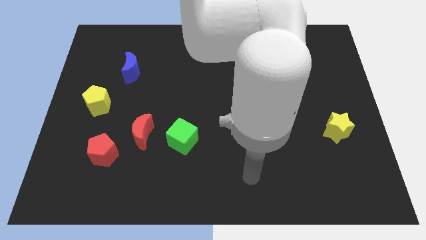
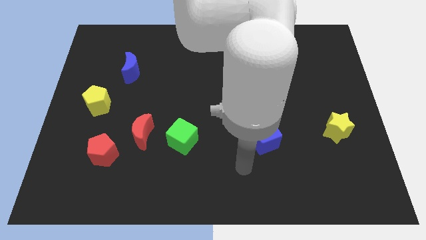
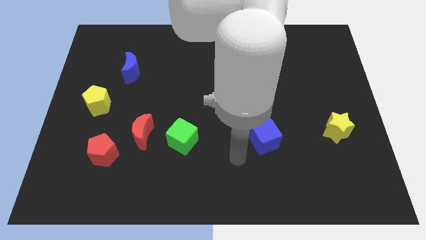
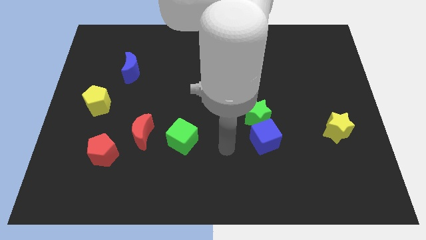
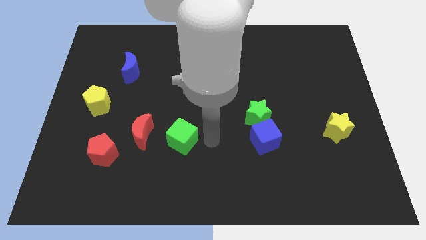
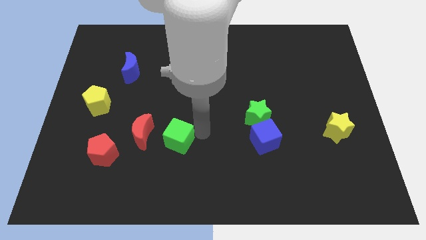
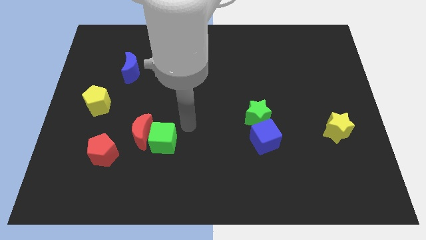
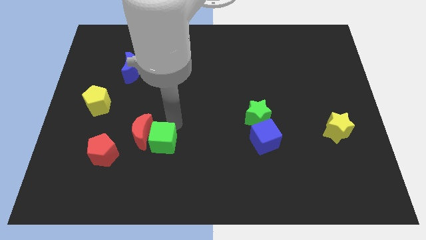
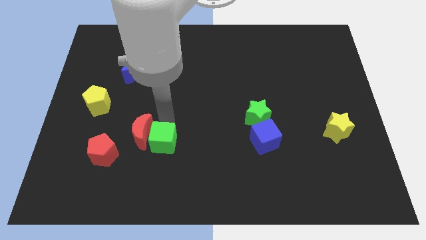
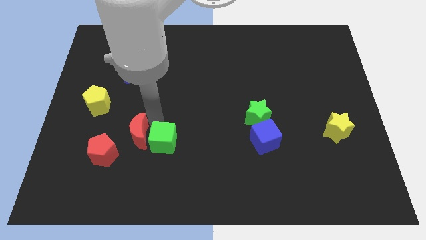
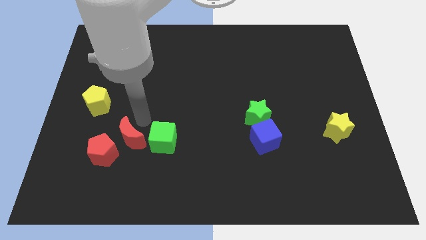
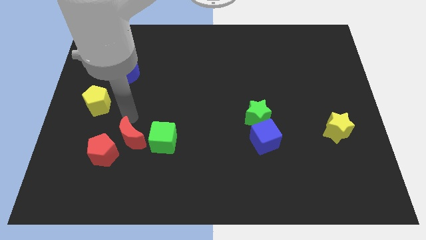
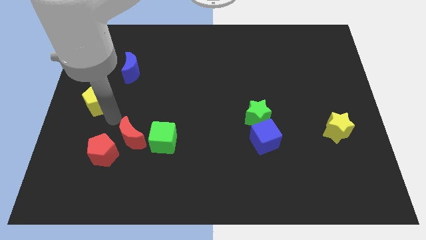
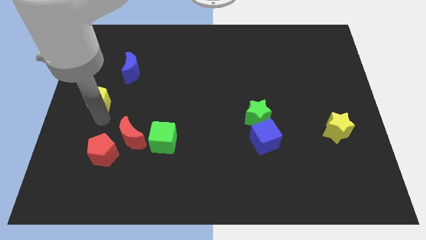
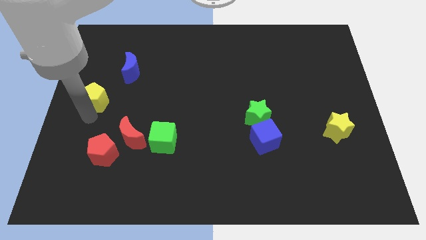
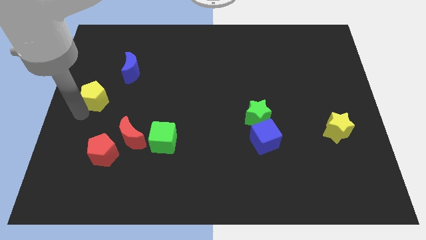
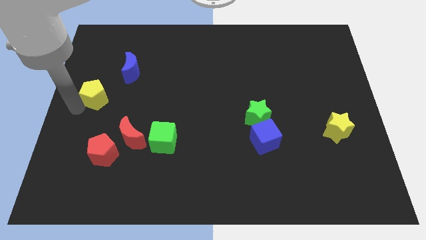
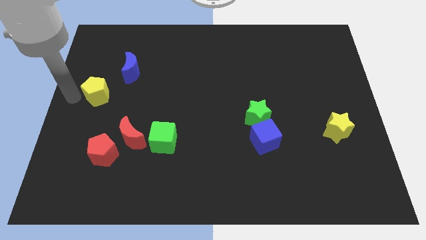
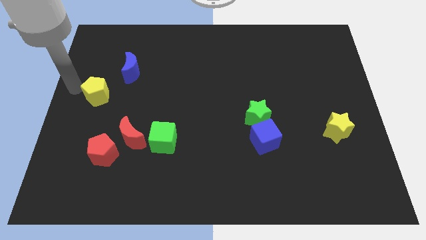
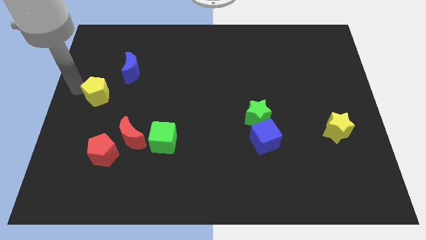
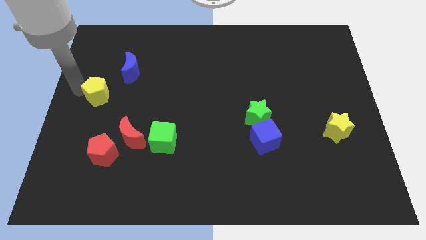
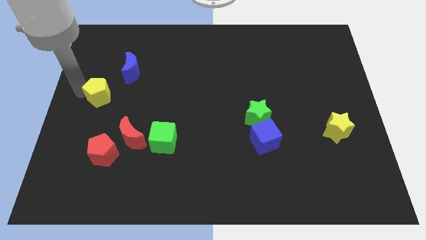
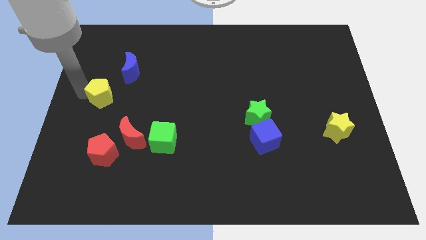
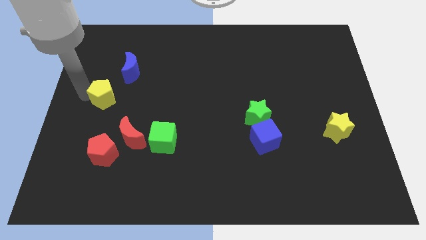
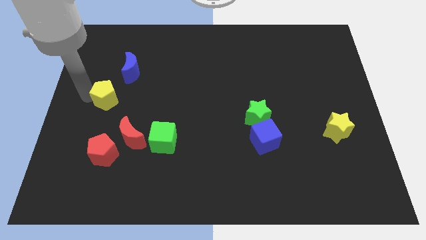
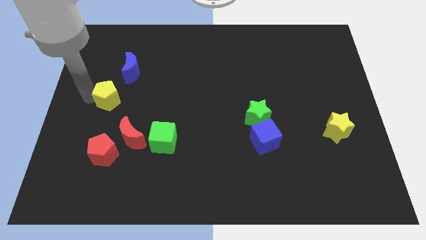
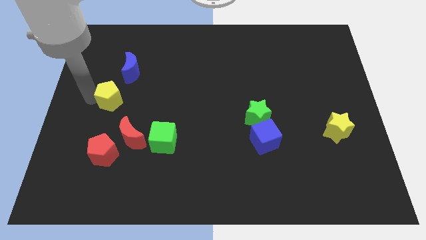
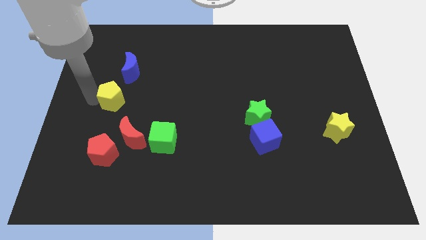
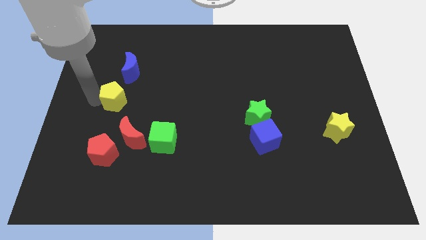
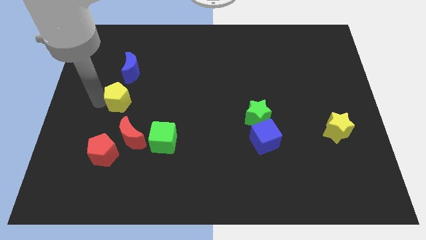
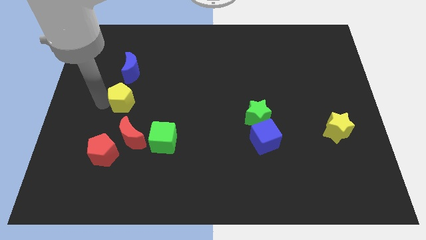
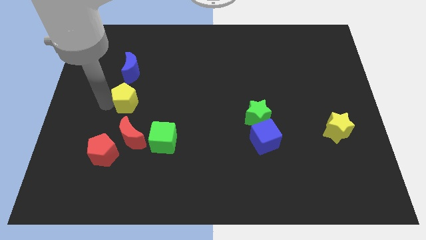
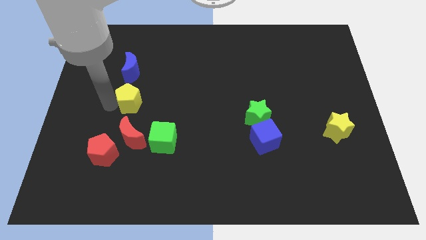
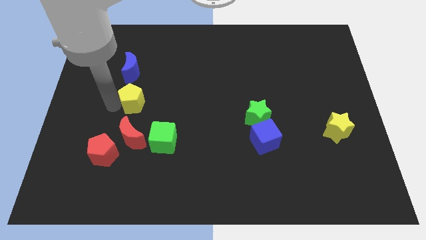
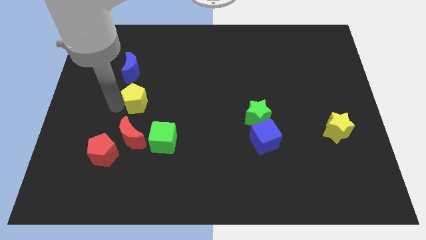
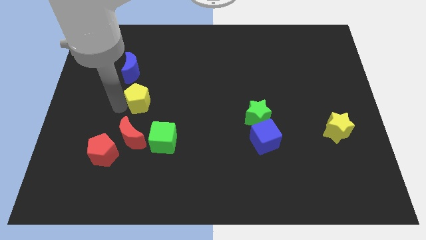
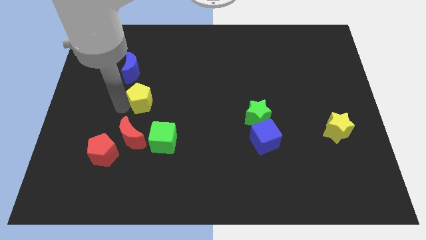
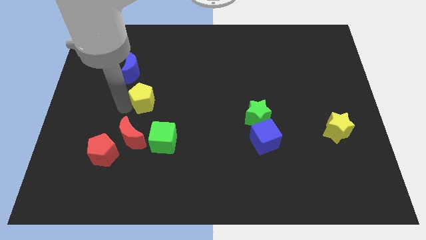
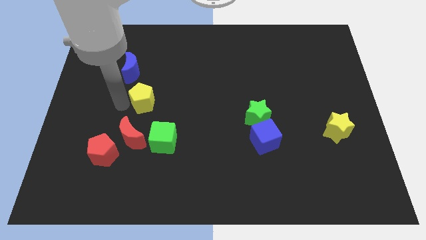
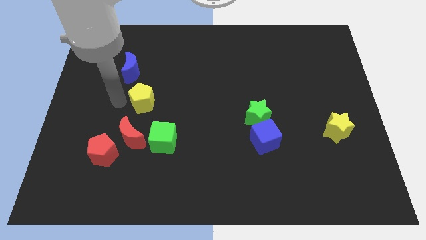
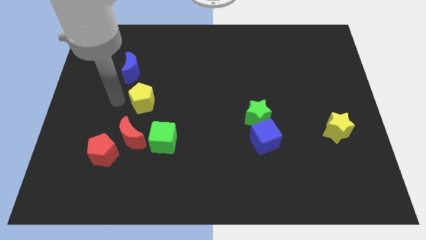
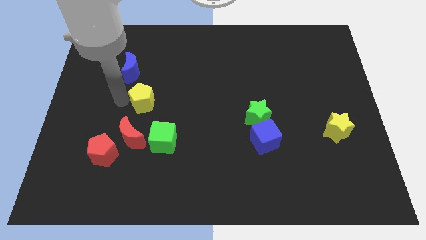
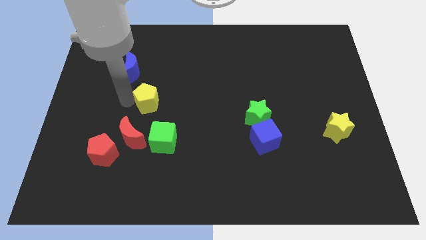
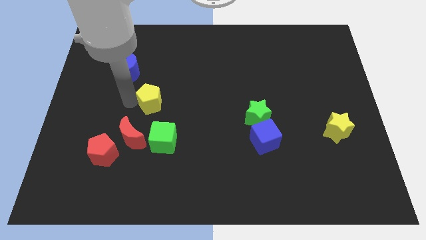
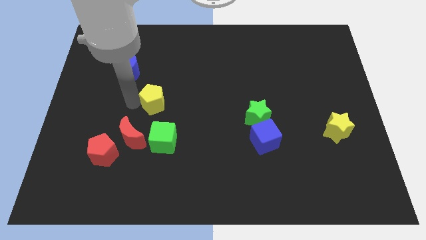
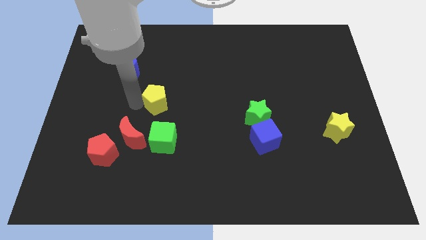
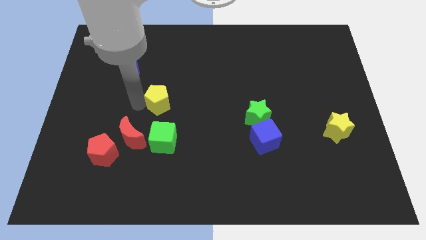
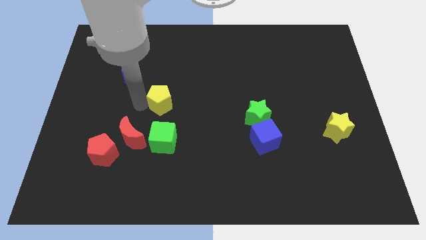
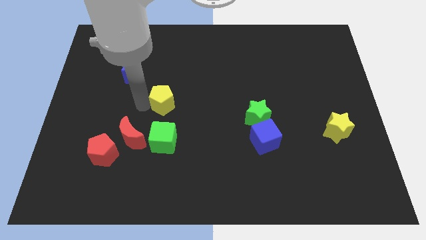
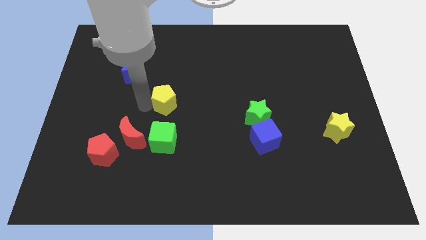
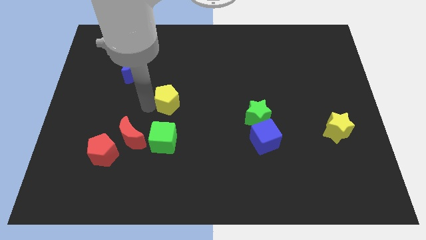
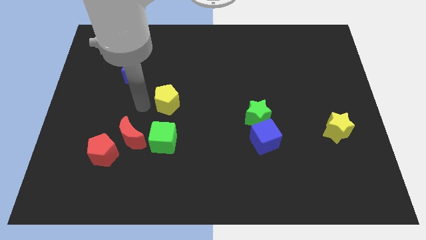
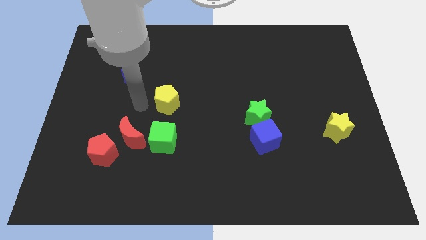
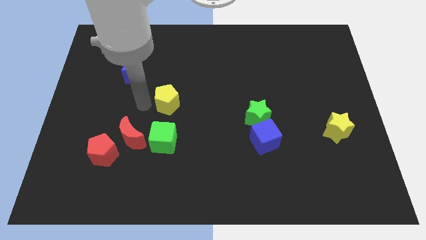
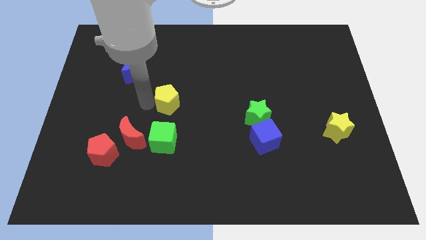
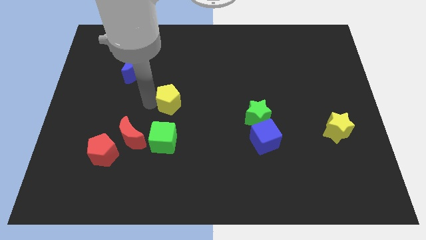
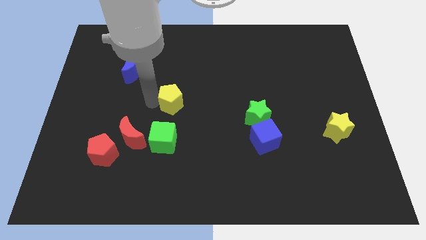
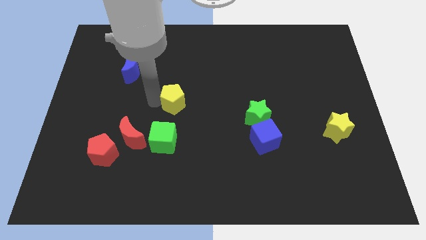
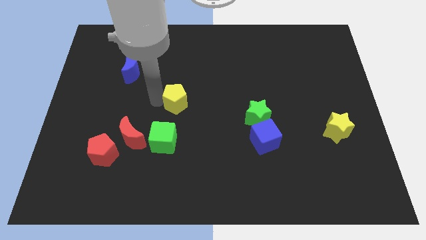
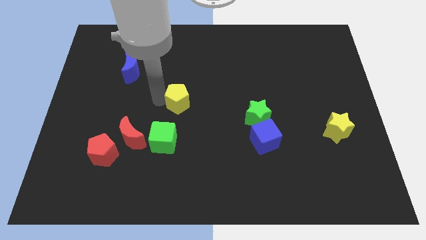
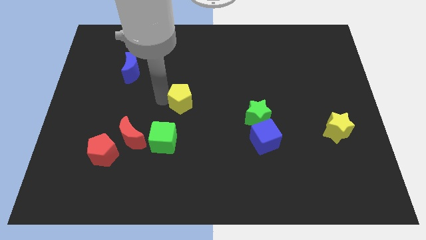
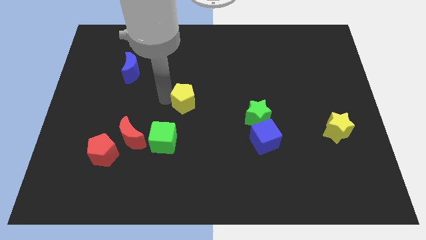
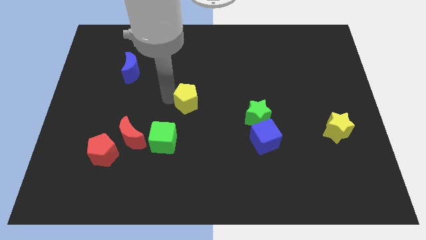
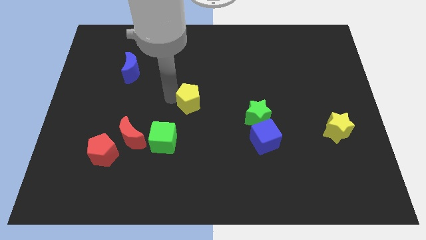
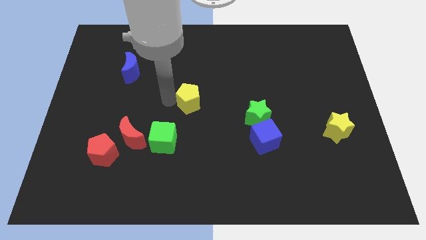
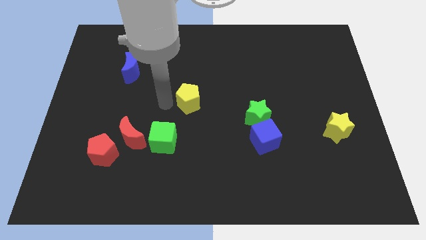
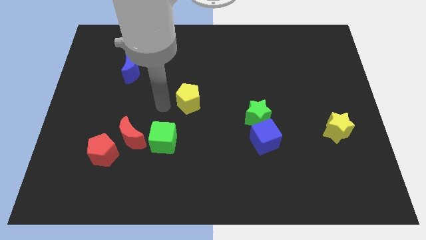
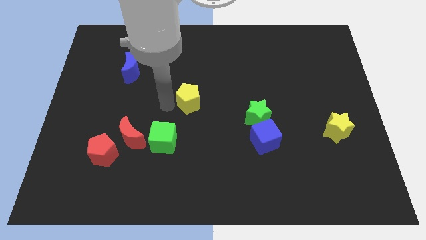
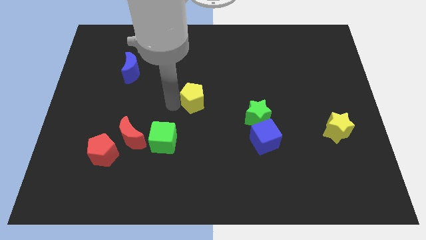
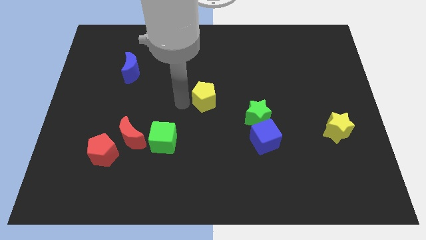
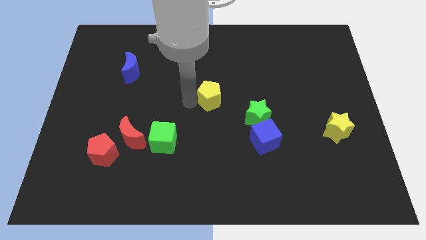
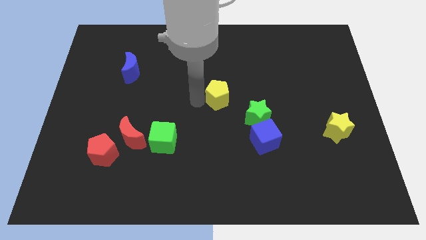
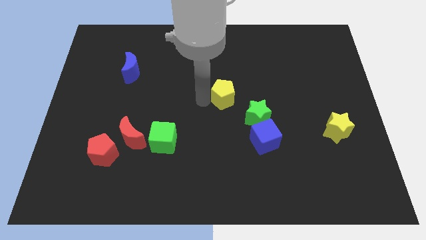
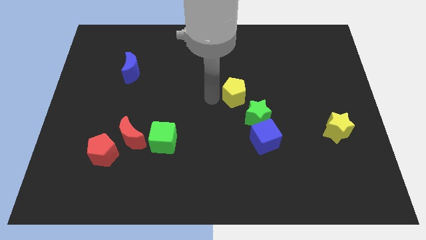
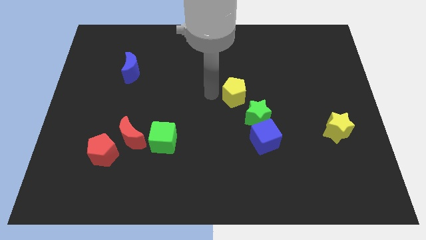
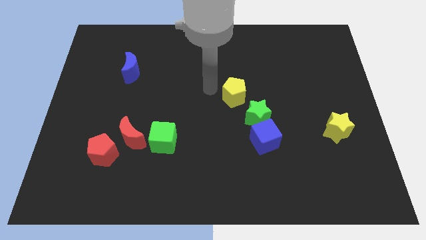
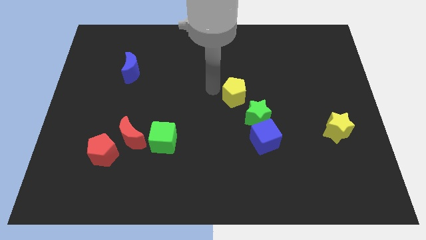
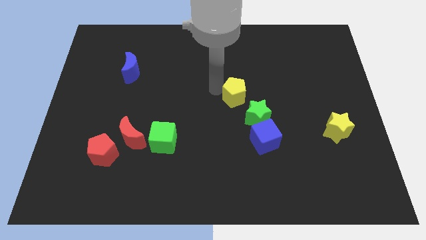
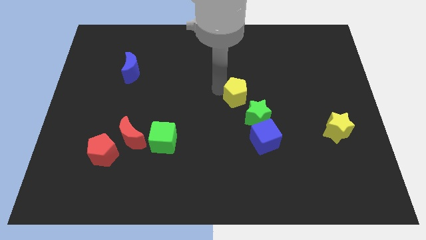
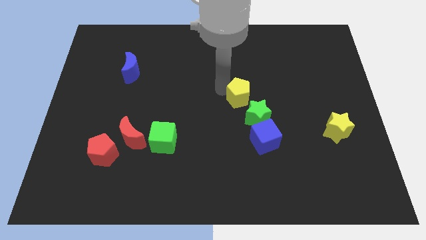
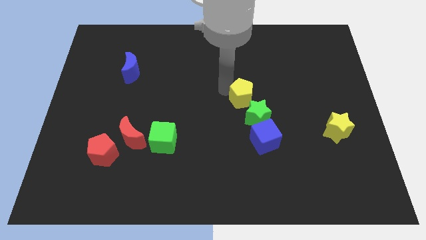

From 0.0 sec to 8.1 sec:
put the yellow pentagon to the top of the blue cube
